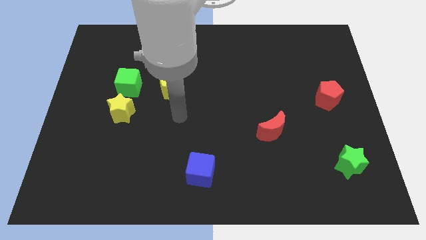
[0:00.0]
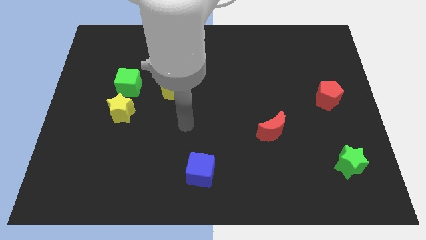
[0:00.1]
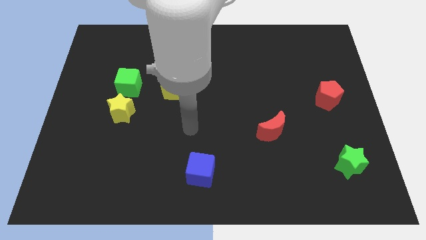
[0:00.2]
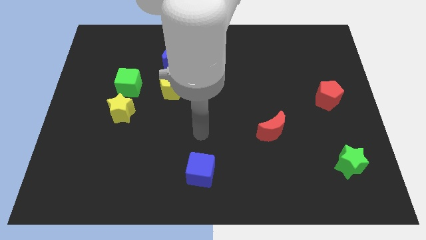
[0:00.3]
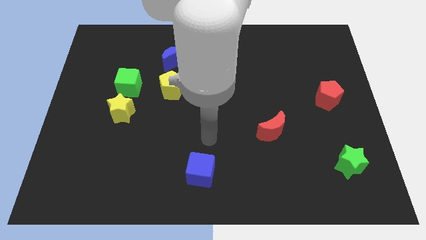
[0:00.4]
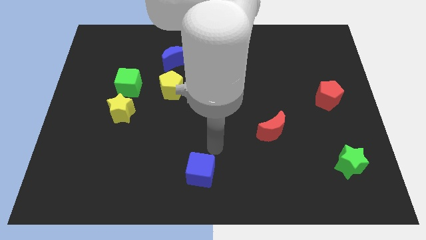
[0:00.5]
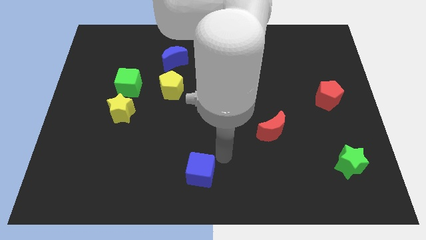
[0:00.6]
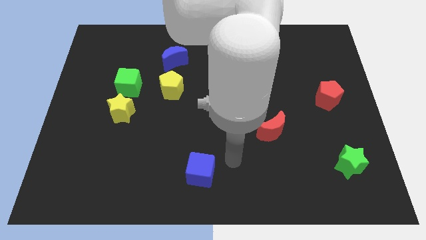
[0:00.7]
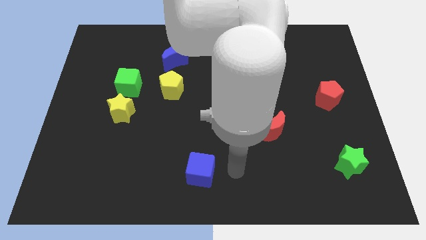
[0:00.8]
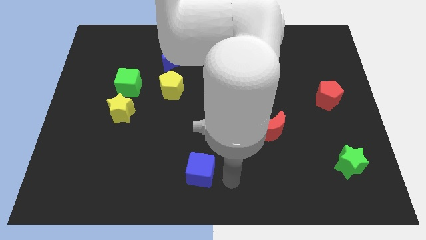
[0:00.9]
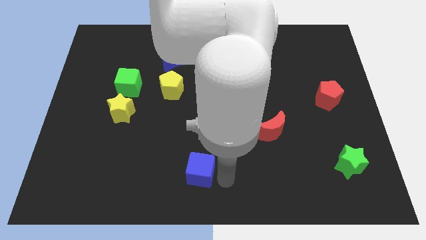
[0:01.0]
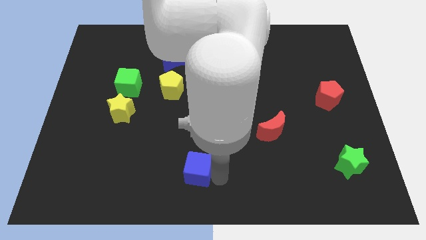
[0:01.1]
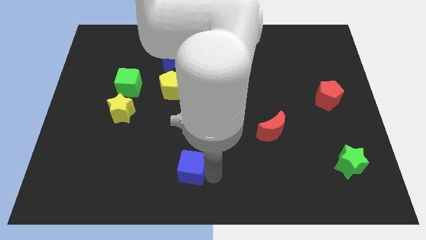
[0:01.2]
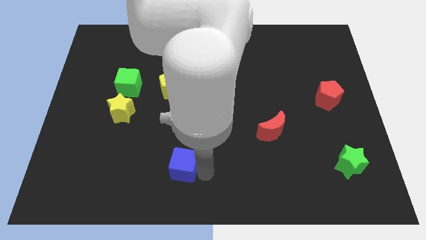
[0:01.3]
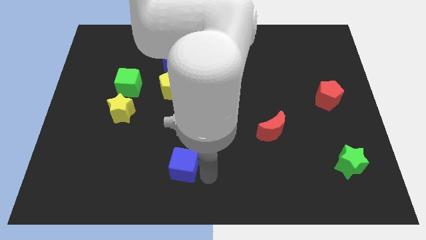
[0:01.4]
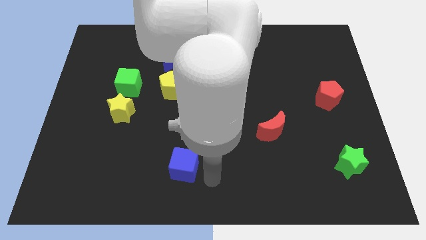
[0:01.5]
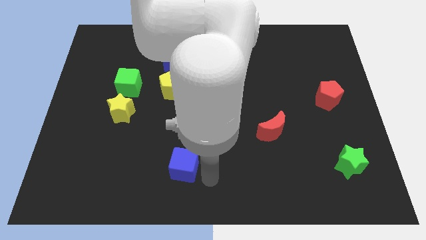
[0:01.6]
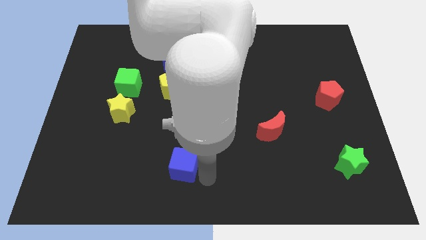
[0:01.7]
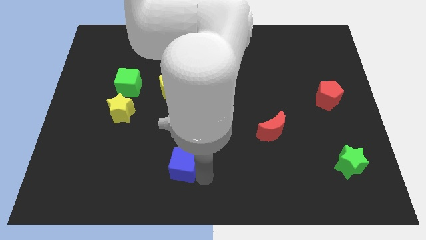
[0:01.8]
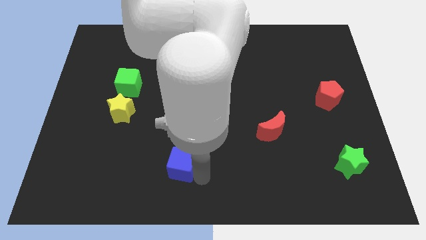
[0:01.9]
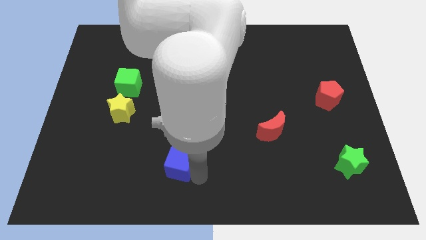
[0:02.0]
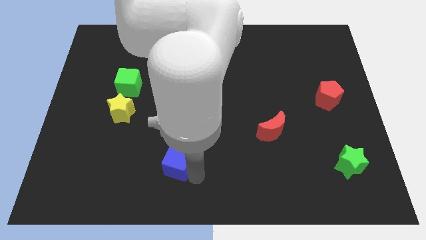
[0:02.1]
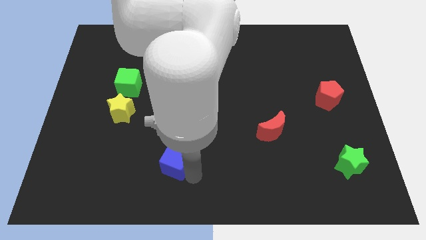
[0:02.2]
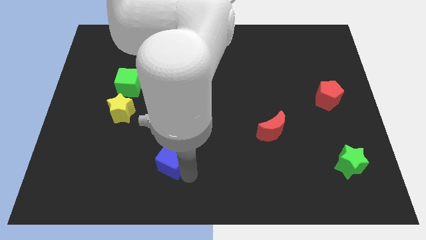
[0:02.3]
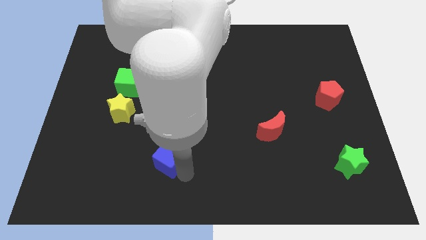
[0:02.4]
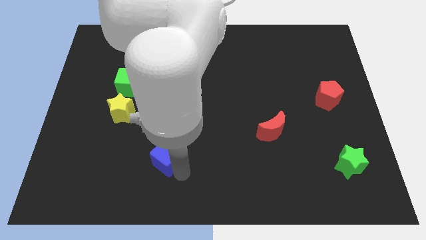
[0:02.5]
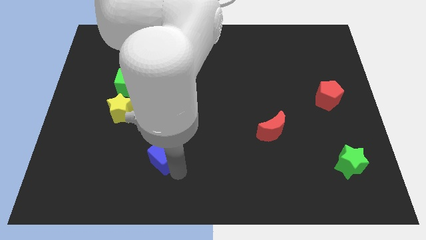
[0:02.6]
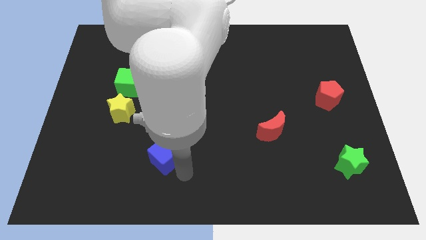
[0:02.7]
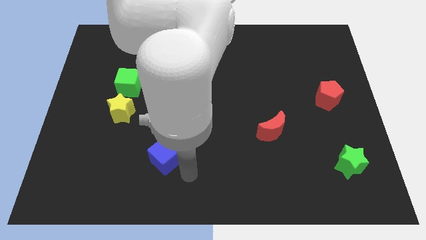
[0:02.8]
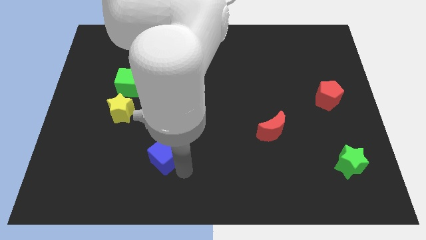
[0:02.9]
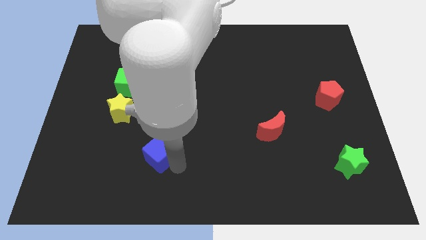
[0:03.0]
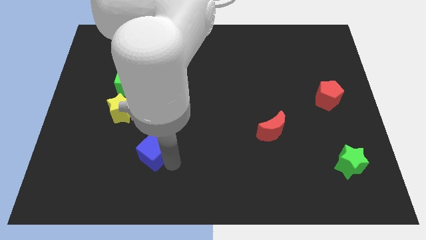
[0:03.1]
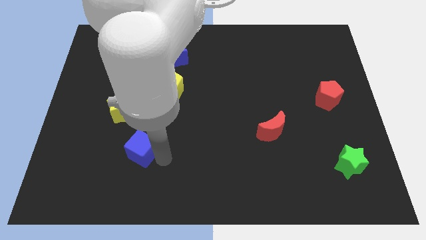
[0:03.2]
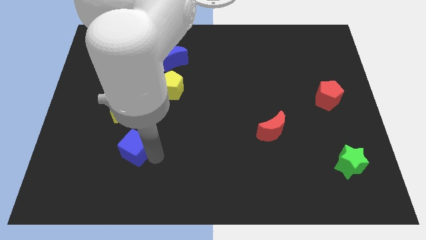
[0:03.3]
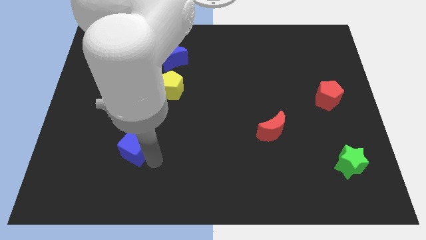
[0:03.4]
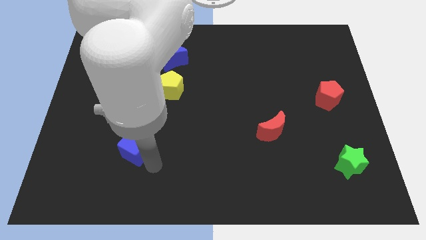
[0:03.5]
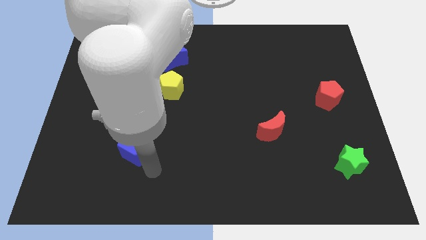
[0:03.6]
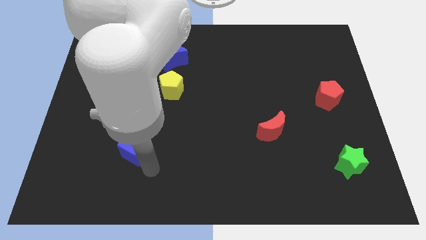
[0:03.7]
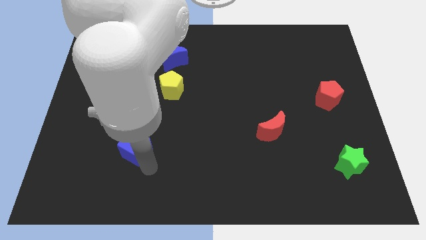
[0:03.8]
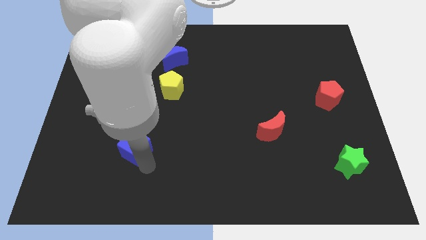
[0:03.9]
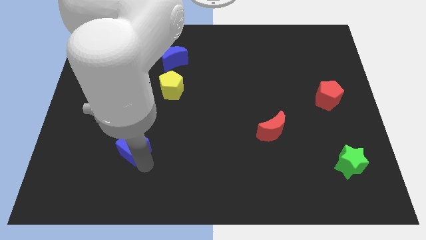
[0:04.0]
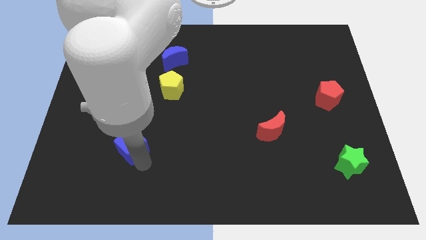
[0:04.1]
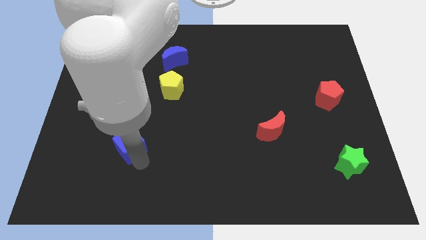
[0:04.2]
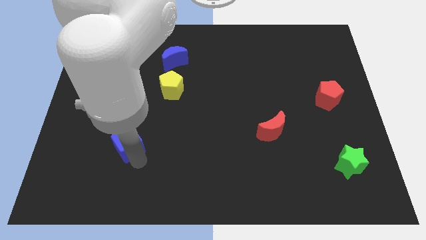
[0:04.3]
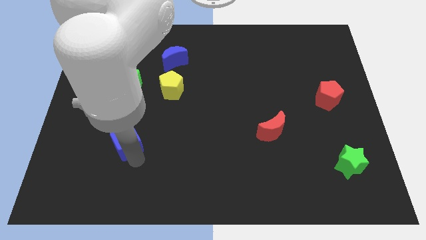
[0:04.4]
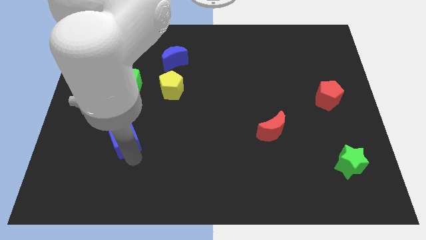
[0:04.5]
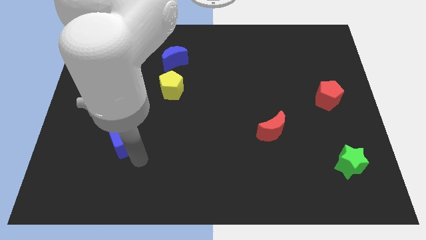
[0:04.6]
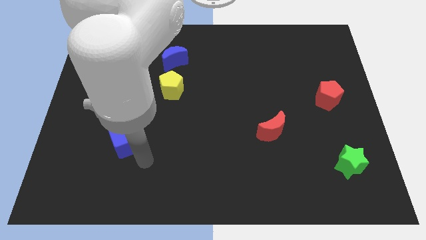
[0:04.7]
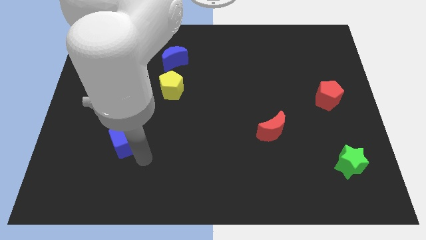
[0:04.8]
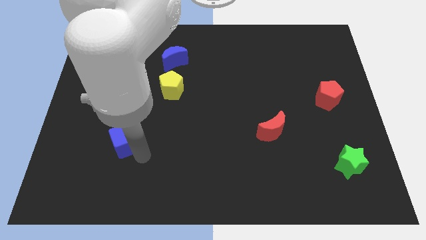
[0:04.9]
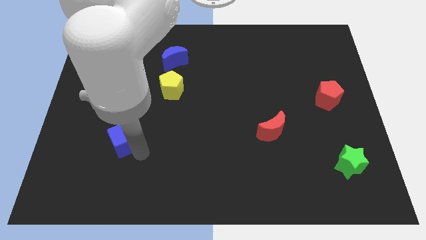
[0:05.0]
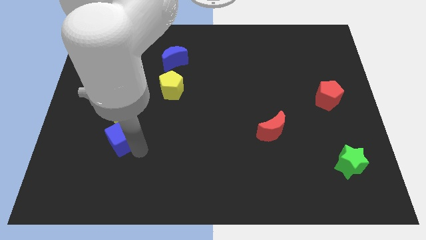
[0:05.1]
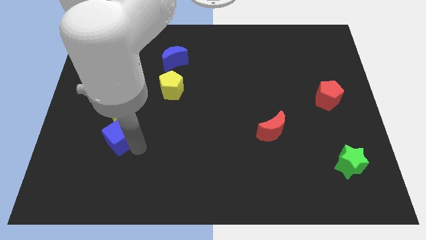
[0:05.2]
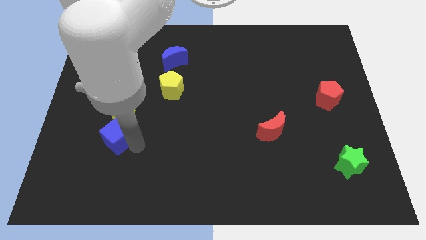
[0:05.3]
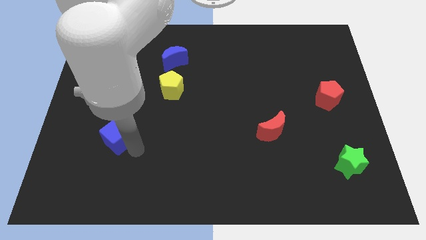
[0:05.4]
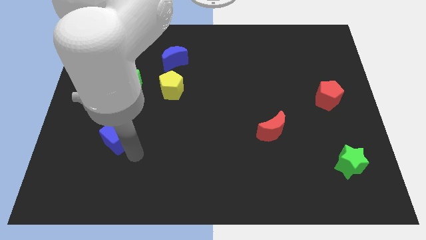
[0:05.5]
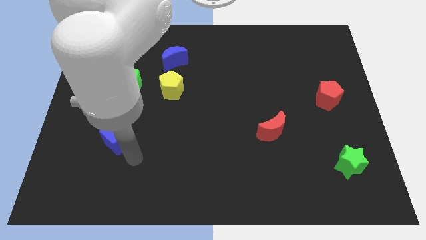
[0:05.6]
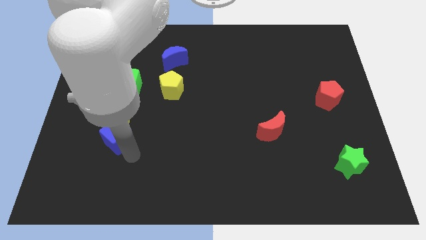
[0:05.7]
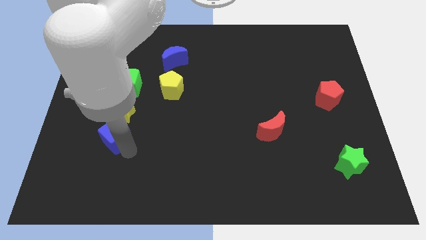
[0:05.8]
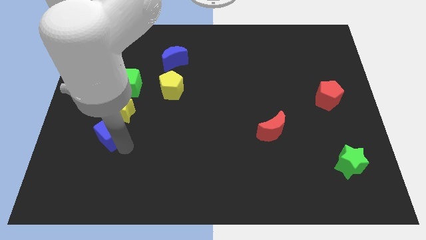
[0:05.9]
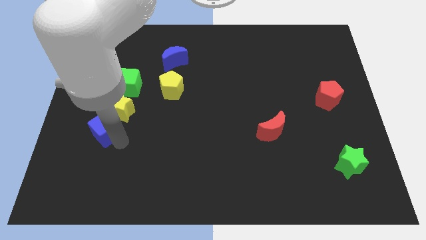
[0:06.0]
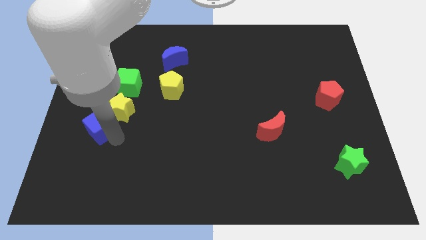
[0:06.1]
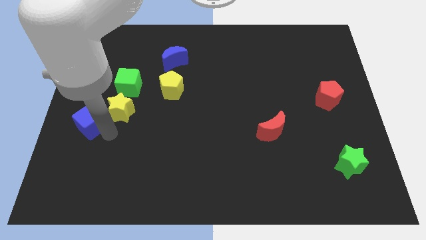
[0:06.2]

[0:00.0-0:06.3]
move the blue cube to the left side of the board
